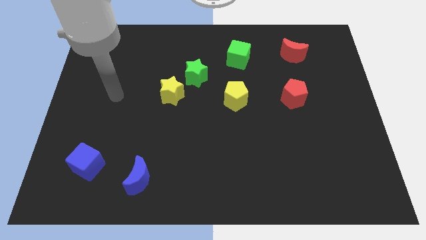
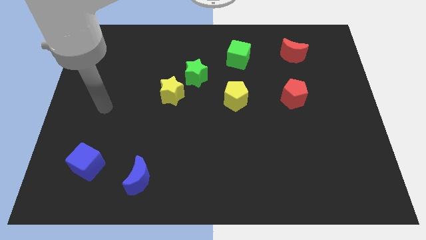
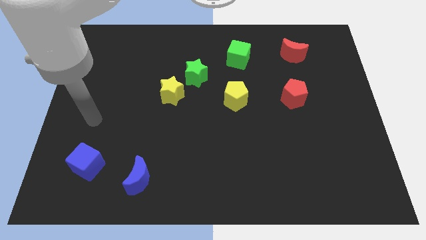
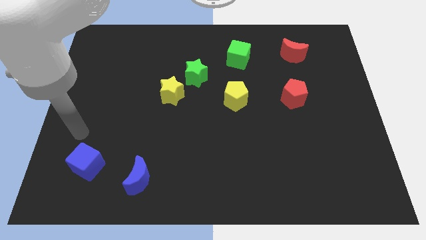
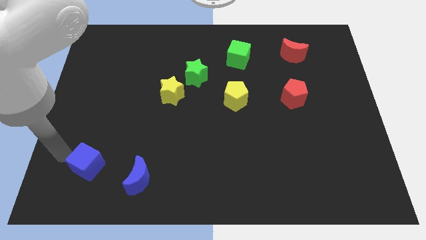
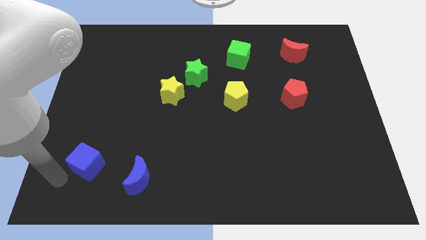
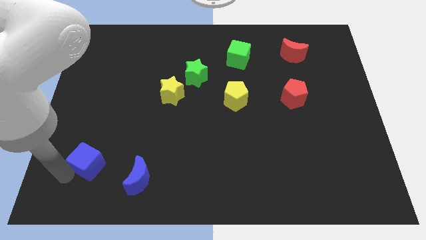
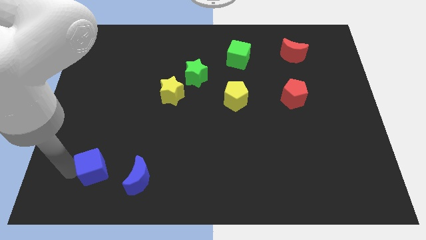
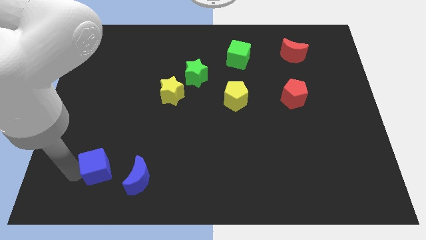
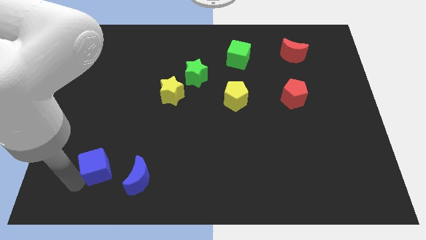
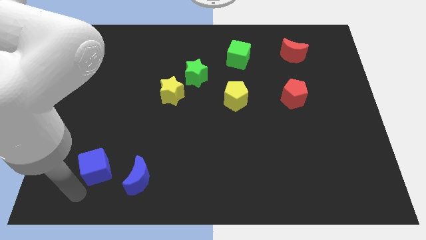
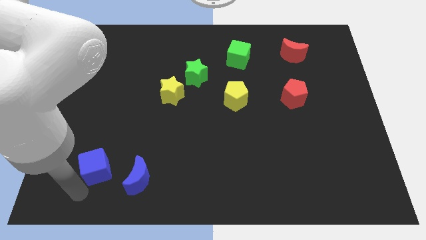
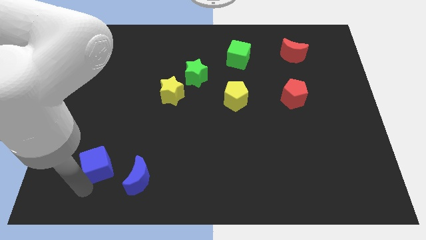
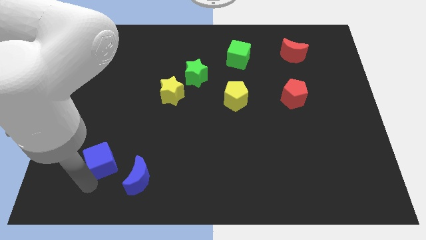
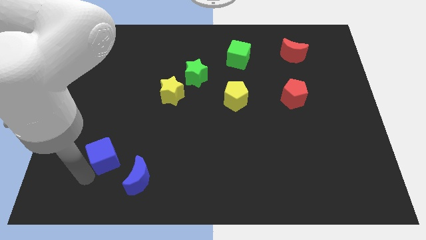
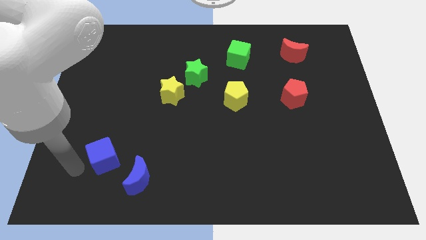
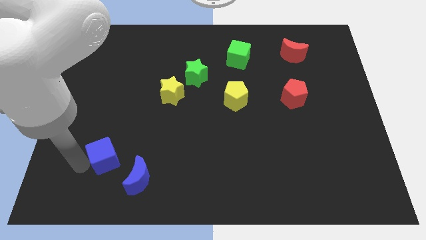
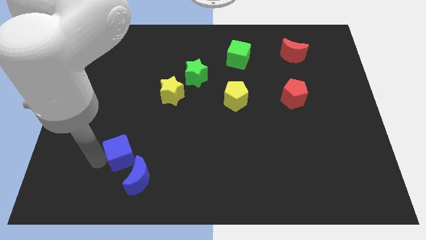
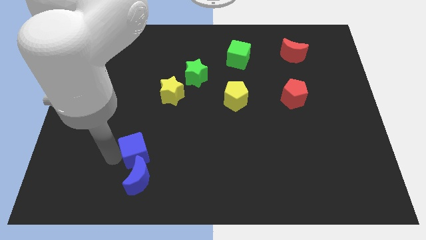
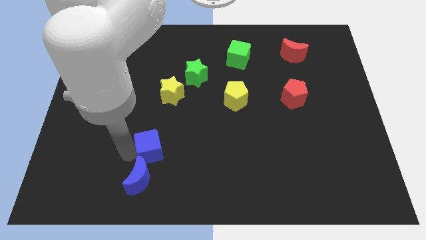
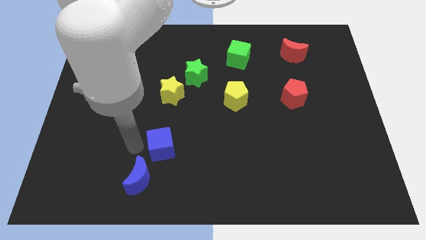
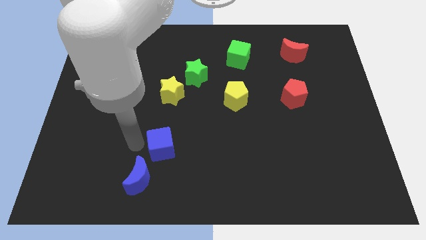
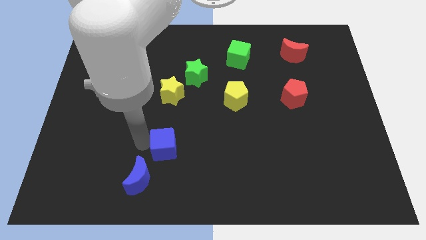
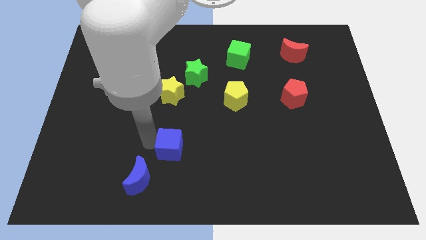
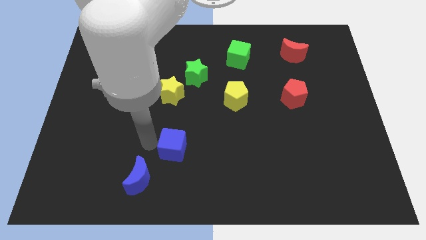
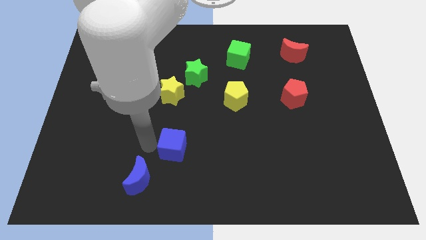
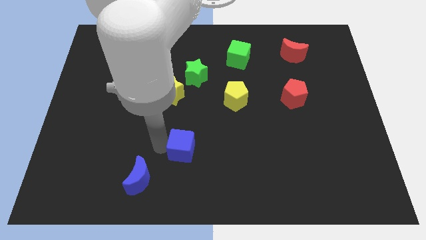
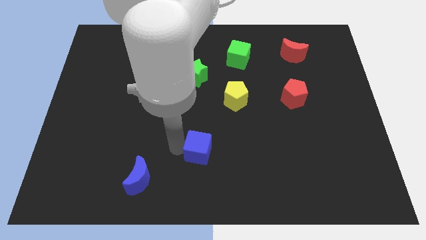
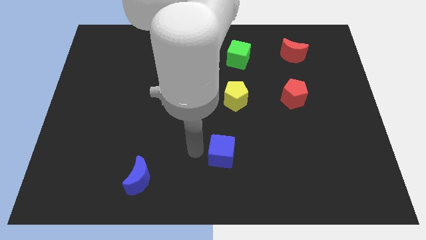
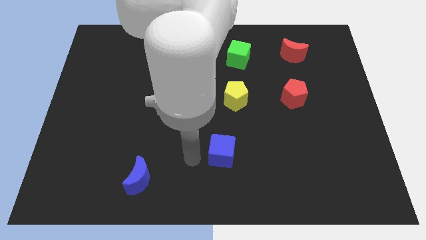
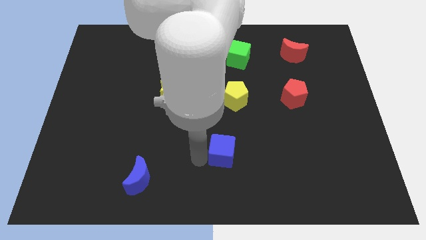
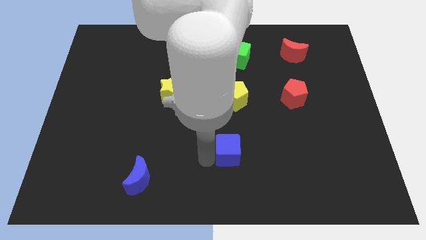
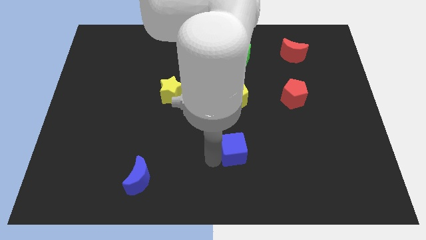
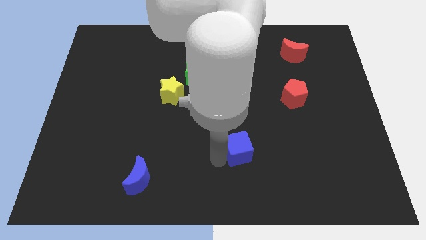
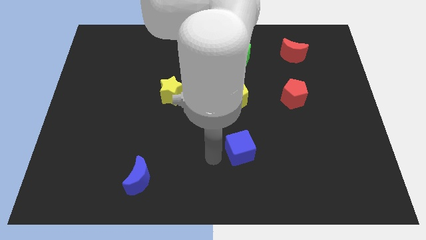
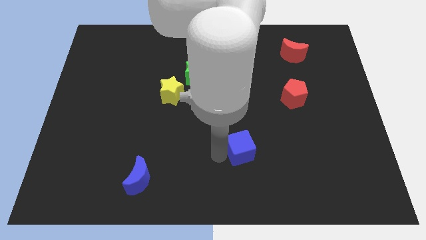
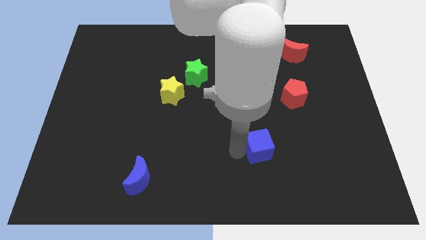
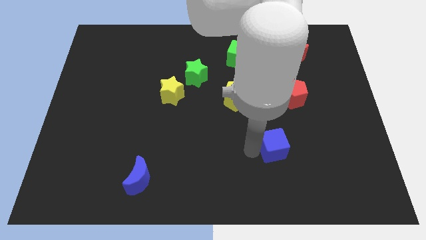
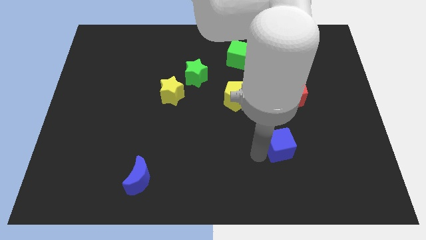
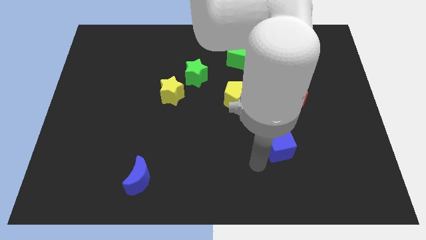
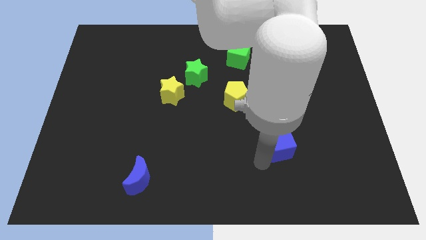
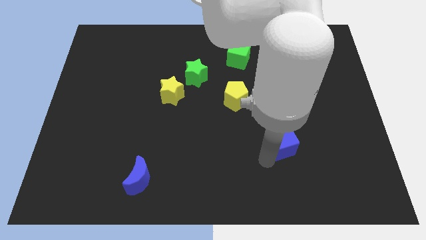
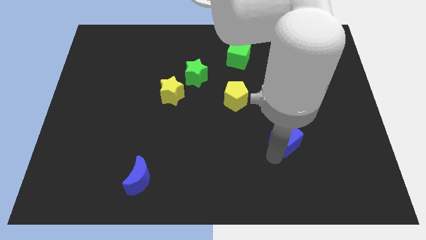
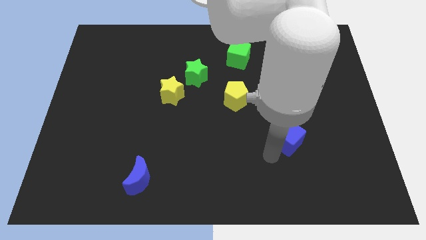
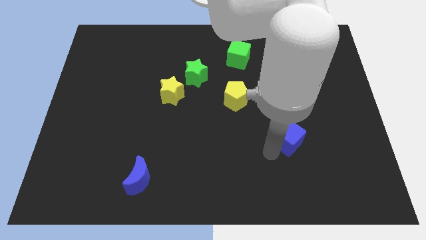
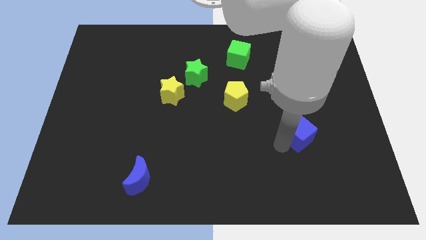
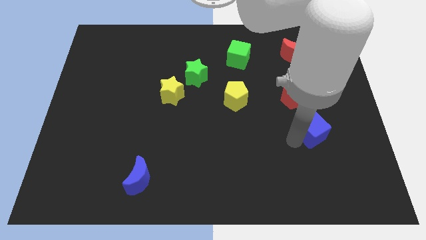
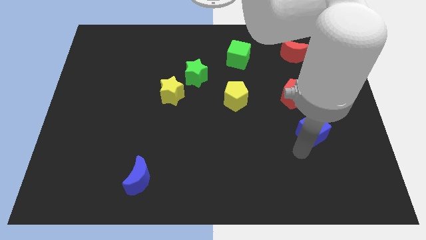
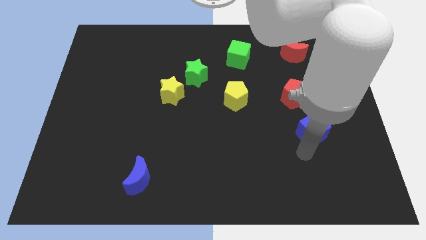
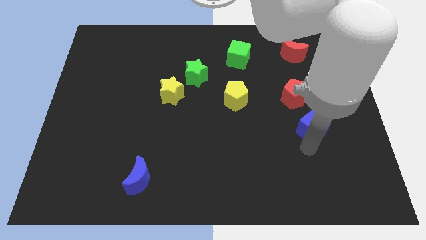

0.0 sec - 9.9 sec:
slide the blue cube to the bottom right side of the red pentagon

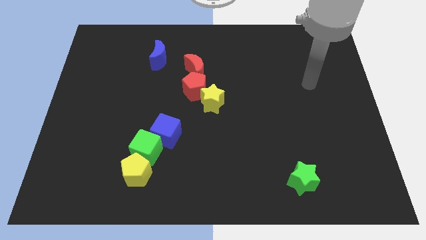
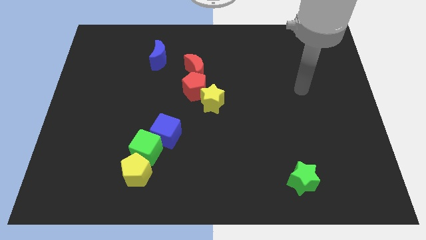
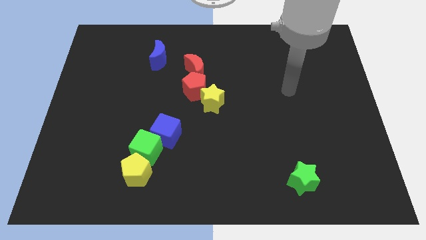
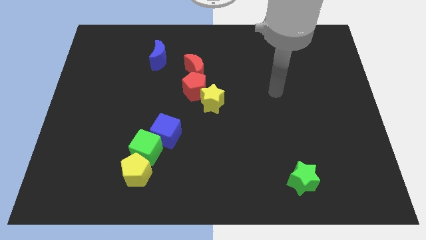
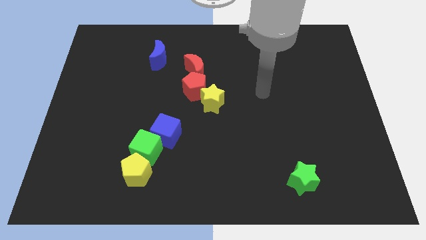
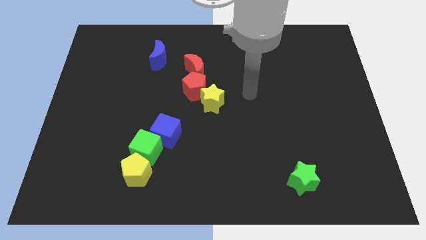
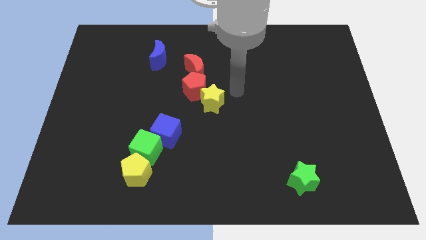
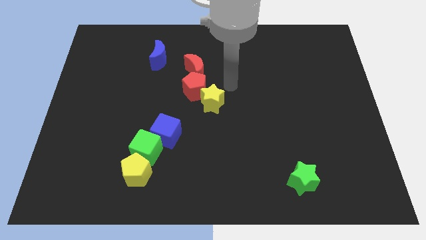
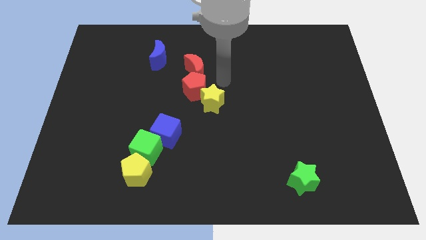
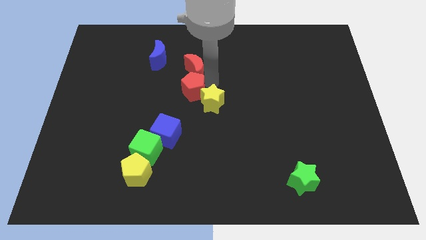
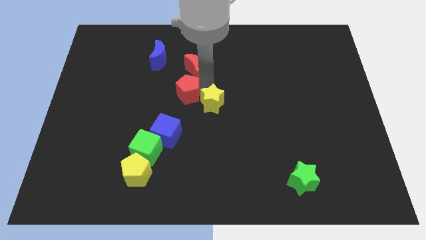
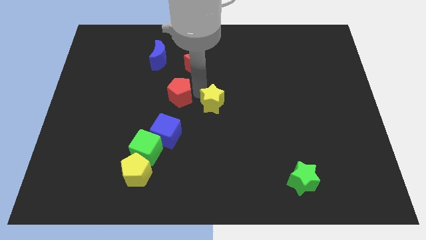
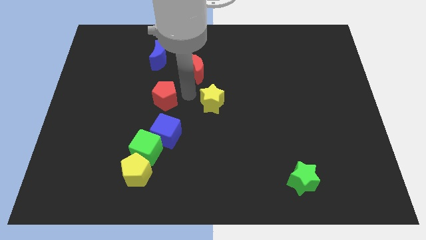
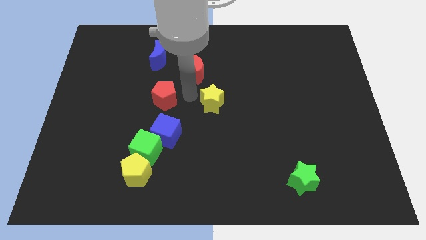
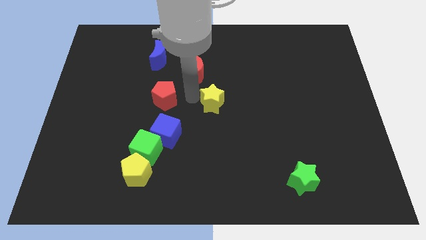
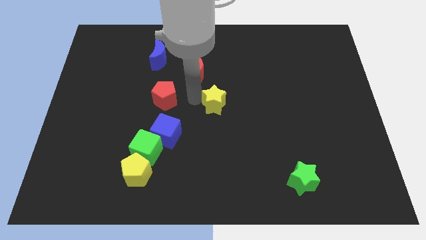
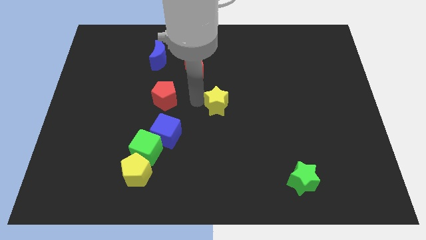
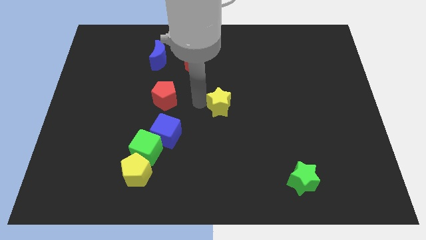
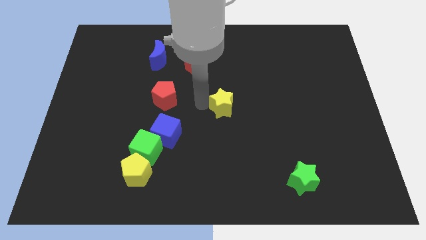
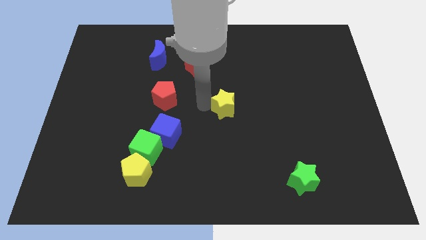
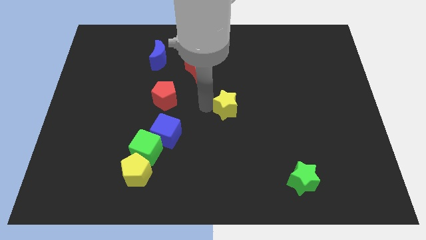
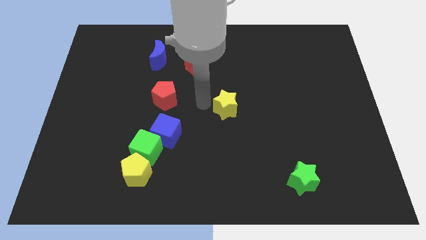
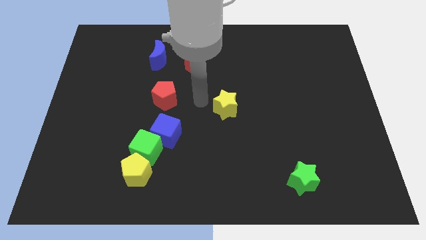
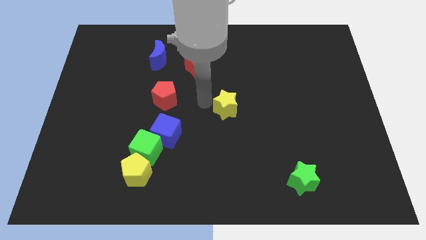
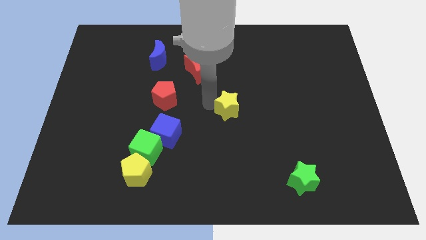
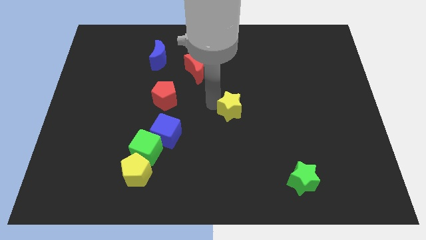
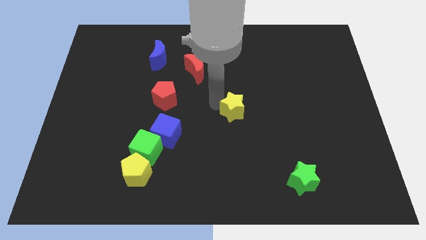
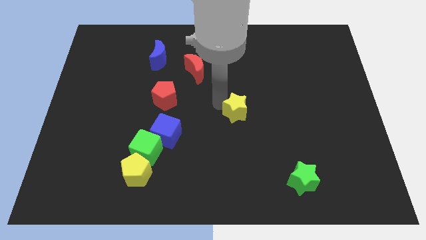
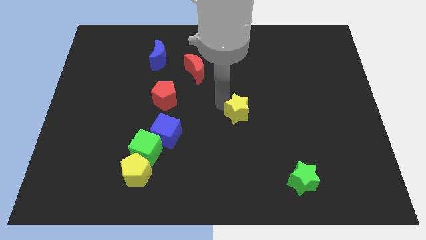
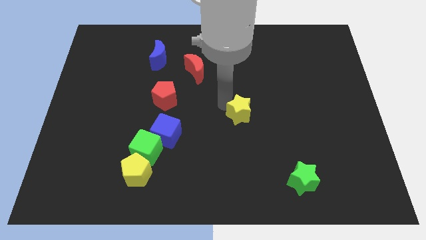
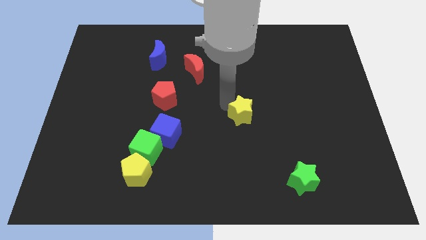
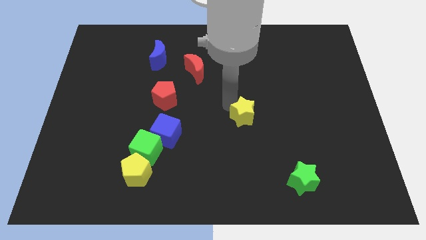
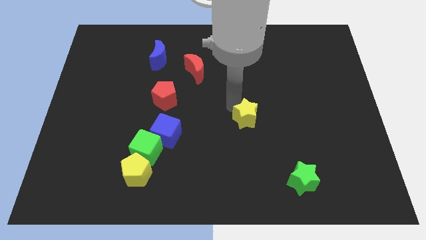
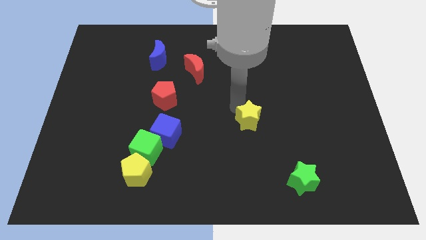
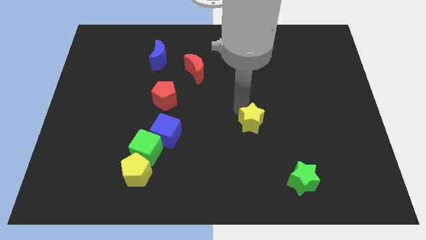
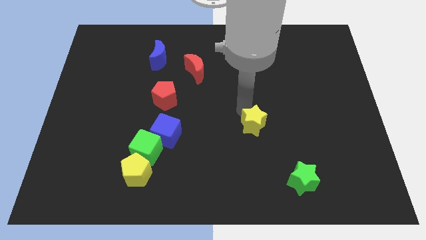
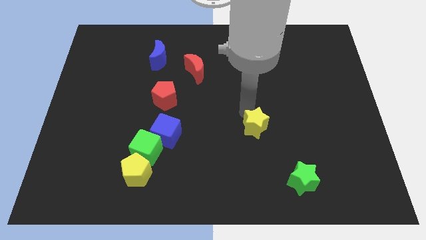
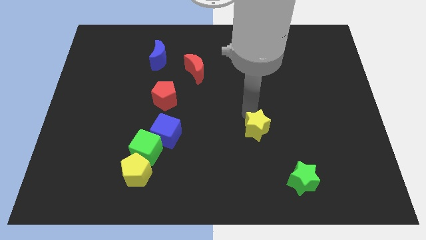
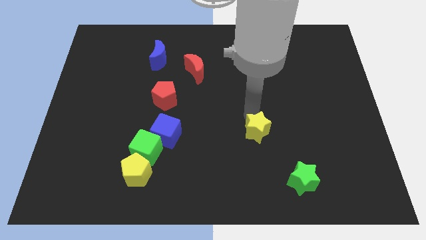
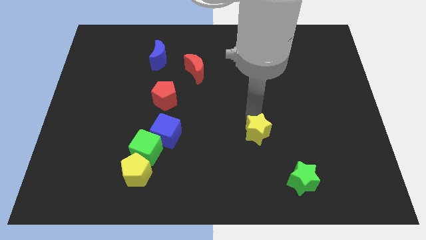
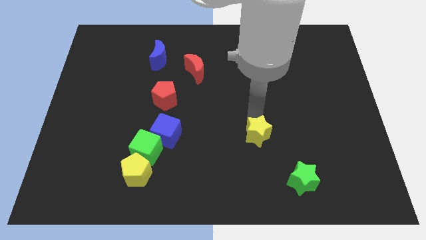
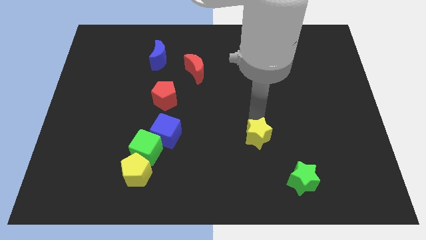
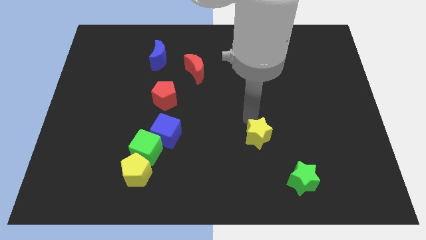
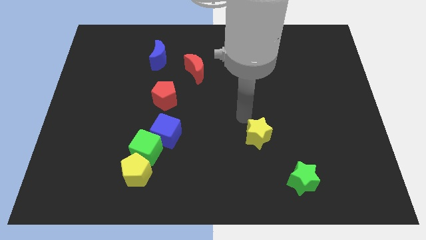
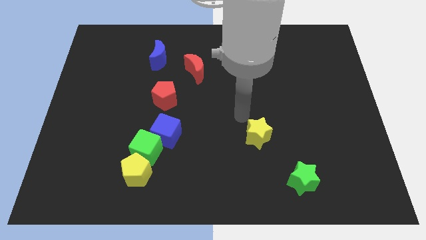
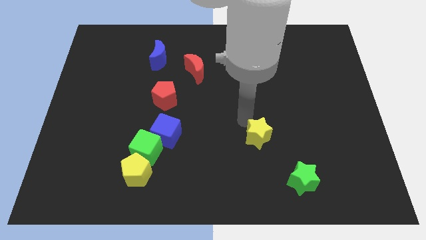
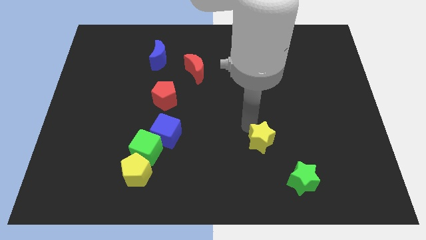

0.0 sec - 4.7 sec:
push the yellow star diagonally up and to the left of the green star
